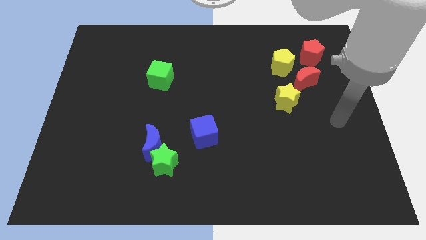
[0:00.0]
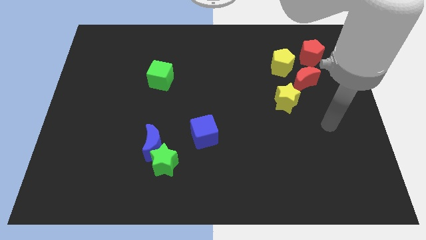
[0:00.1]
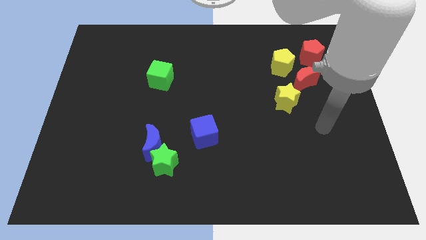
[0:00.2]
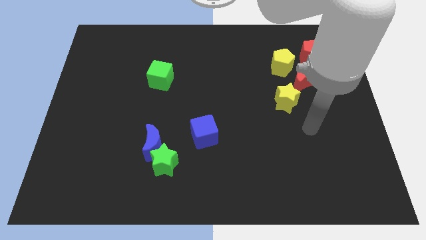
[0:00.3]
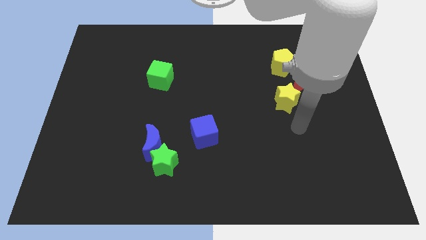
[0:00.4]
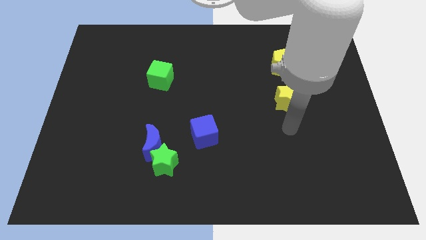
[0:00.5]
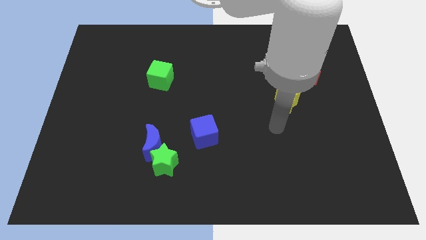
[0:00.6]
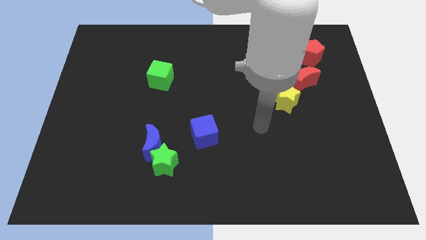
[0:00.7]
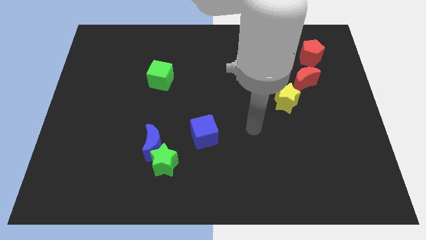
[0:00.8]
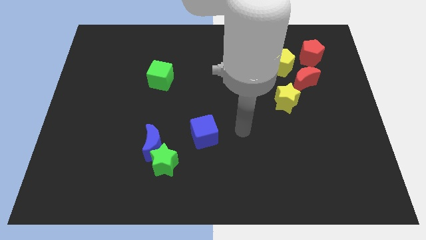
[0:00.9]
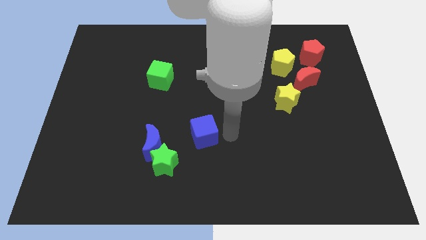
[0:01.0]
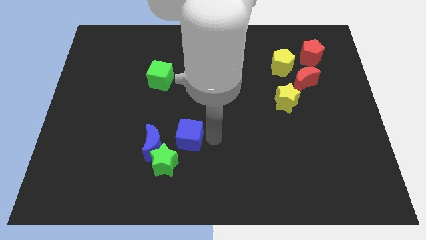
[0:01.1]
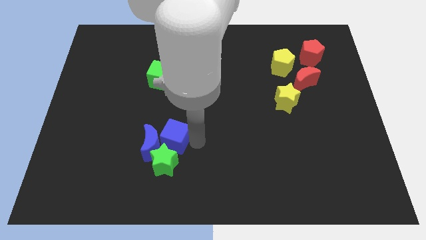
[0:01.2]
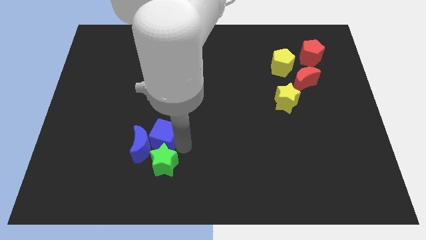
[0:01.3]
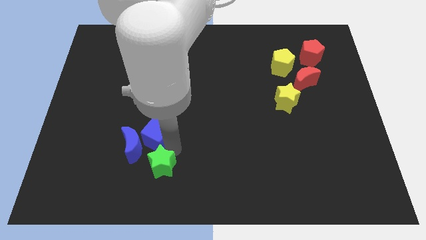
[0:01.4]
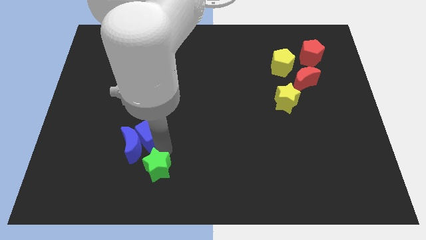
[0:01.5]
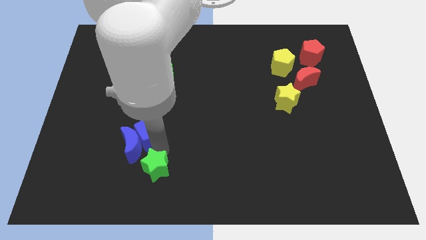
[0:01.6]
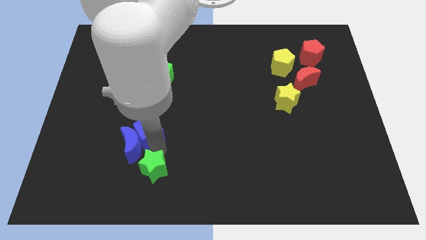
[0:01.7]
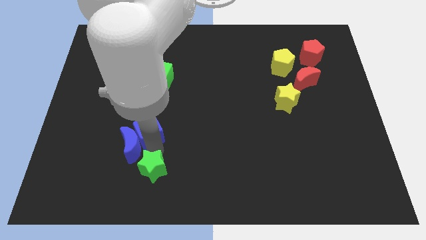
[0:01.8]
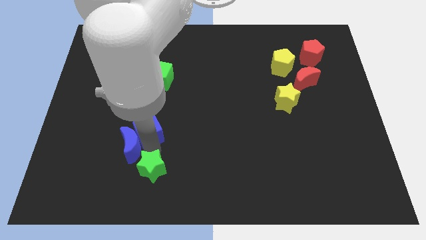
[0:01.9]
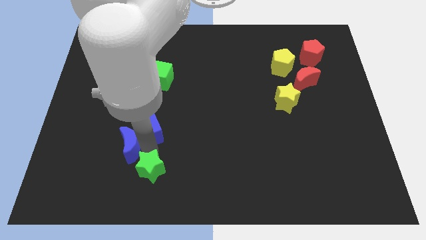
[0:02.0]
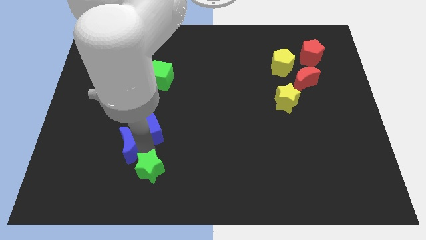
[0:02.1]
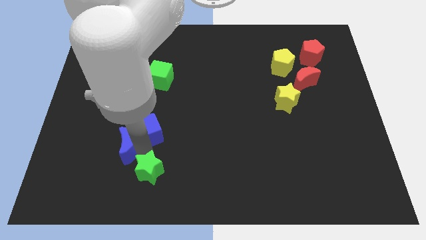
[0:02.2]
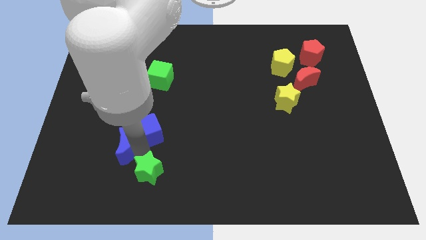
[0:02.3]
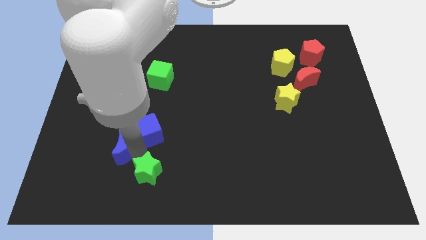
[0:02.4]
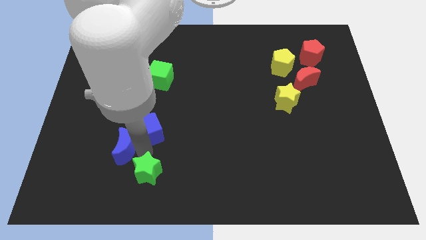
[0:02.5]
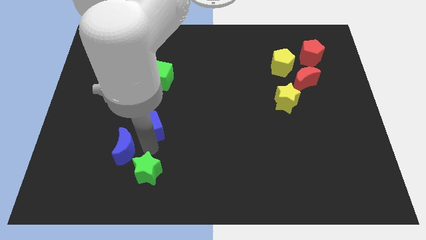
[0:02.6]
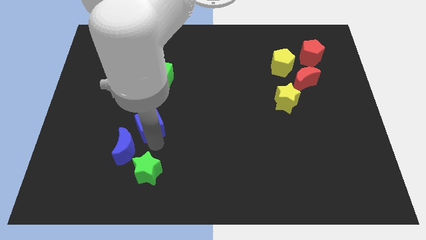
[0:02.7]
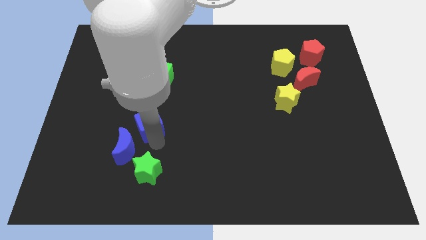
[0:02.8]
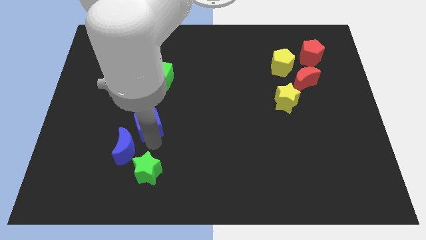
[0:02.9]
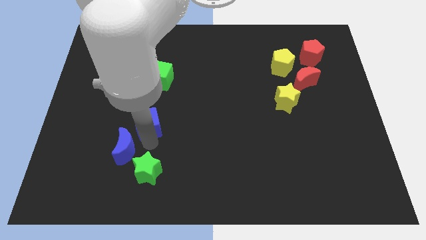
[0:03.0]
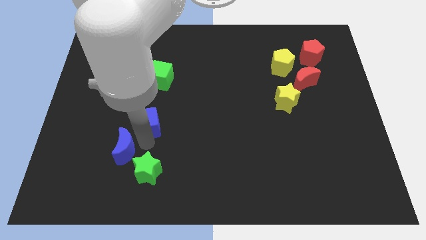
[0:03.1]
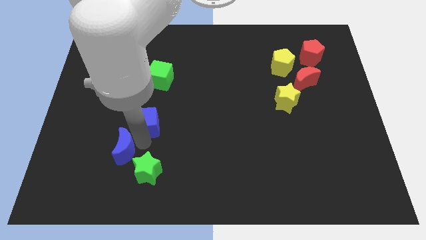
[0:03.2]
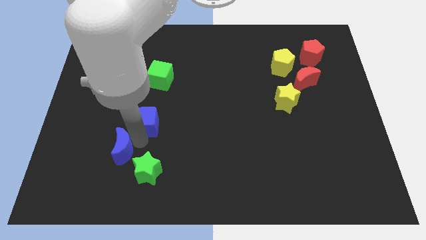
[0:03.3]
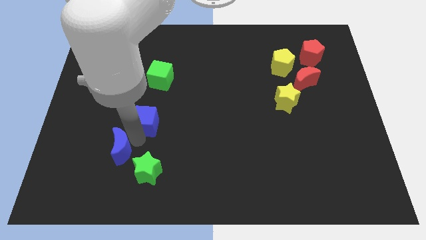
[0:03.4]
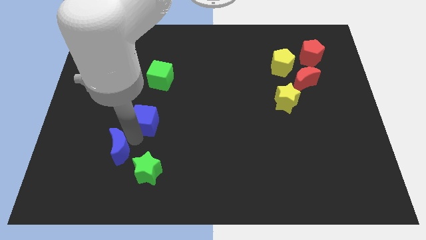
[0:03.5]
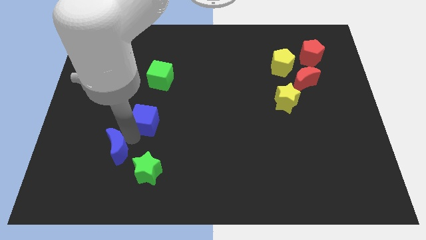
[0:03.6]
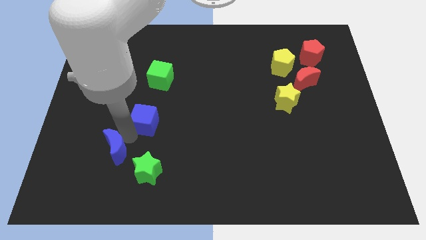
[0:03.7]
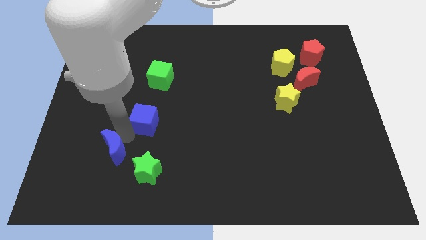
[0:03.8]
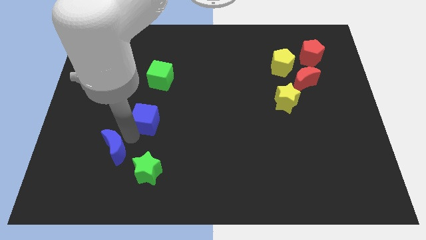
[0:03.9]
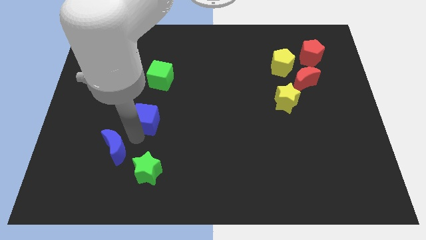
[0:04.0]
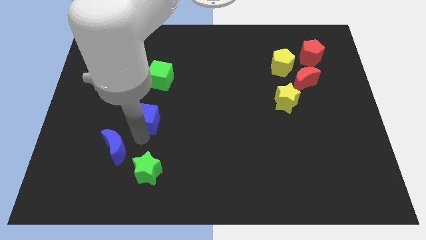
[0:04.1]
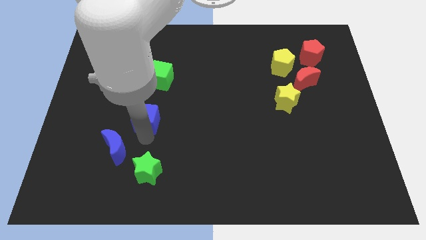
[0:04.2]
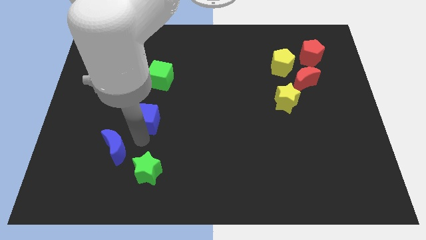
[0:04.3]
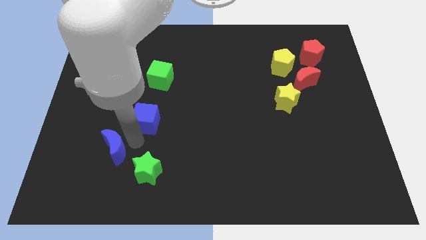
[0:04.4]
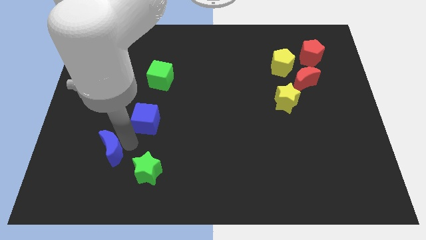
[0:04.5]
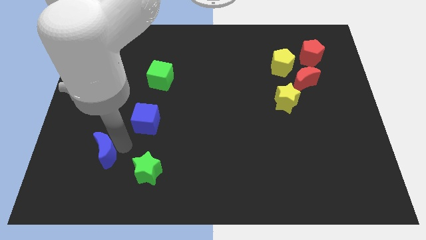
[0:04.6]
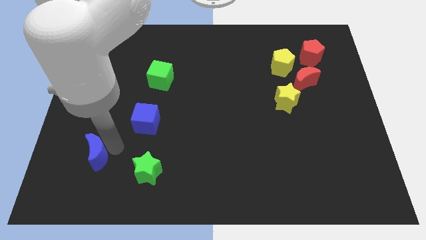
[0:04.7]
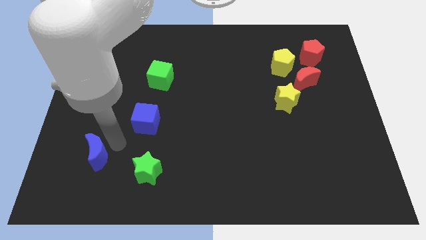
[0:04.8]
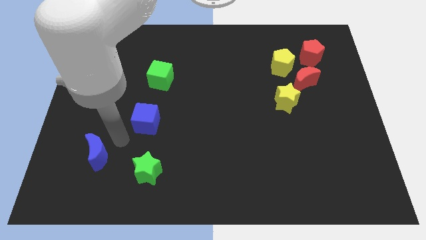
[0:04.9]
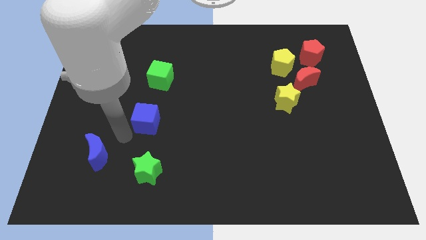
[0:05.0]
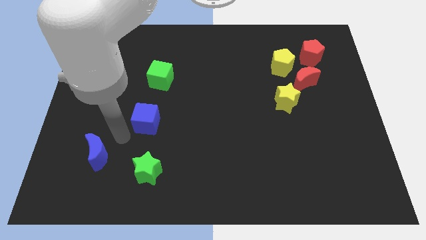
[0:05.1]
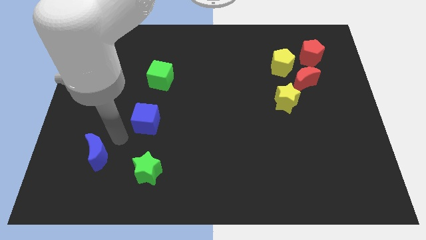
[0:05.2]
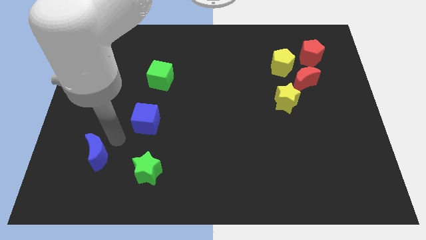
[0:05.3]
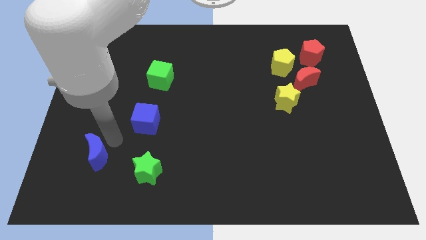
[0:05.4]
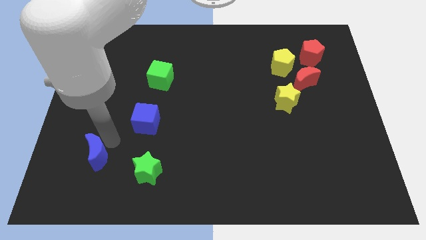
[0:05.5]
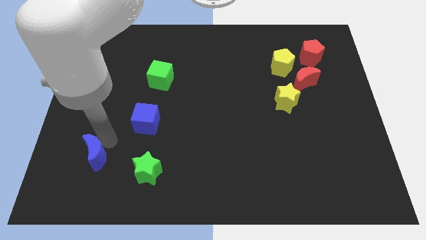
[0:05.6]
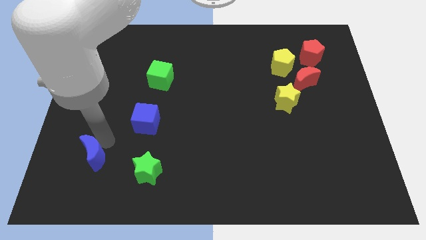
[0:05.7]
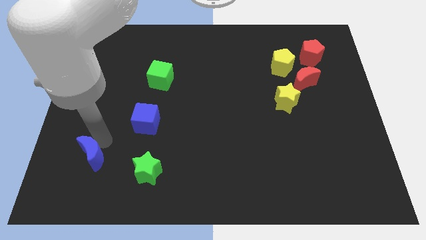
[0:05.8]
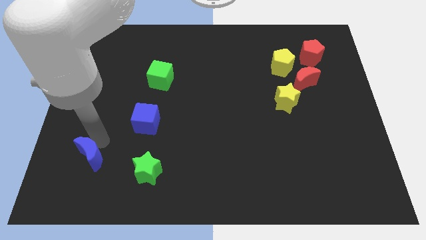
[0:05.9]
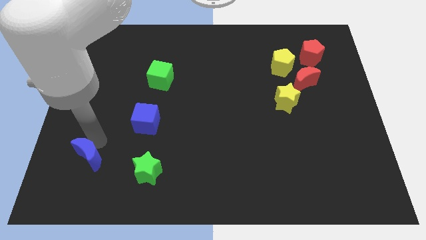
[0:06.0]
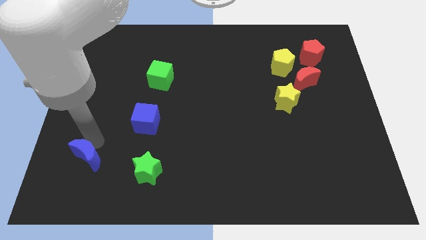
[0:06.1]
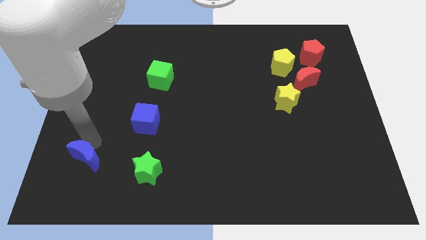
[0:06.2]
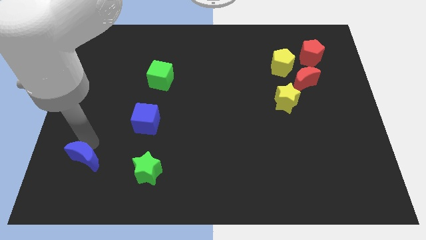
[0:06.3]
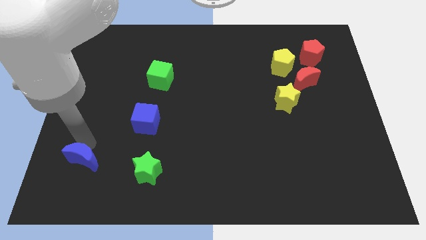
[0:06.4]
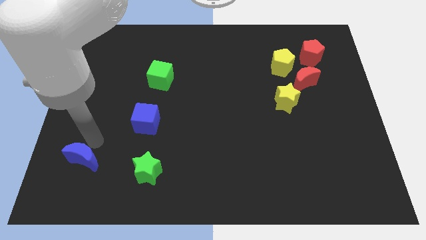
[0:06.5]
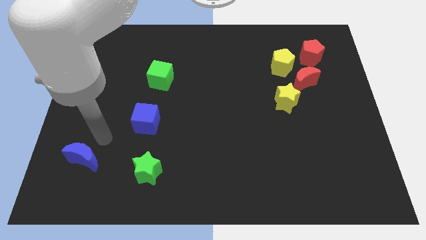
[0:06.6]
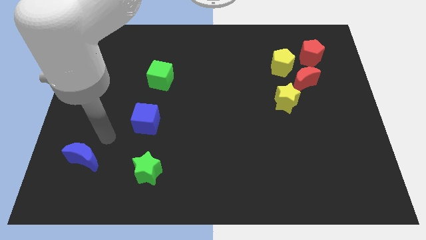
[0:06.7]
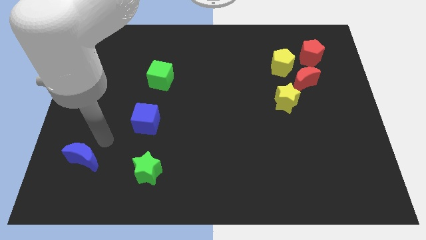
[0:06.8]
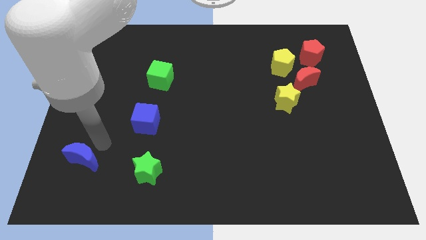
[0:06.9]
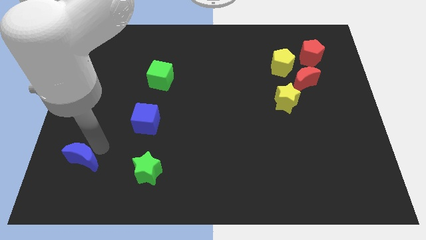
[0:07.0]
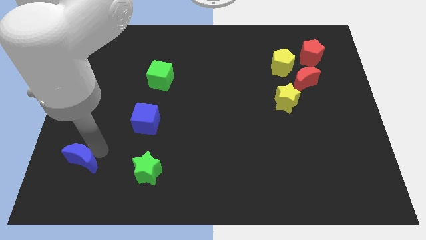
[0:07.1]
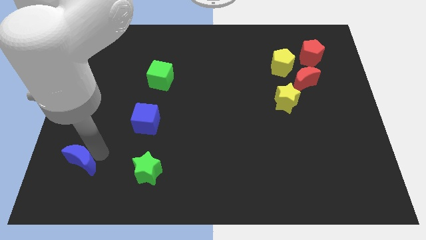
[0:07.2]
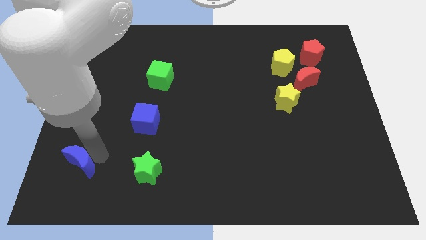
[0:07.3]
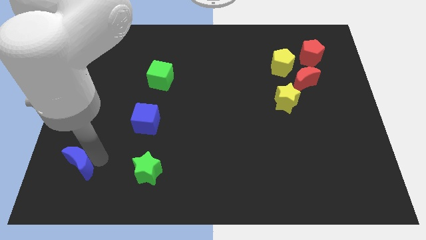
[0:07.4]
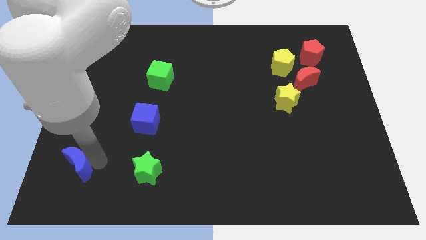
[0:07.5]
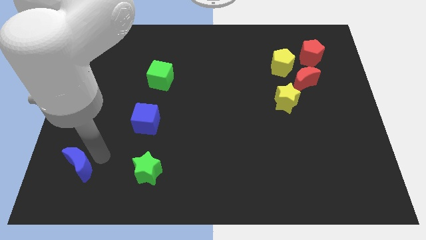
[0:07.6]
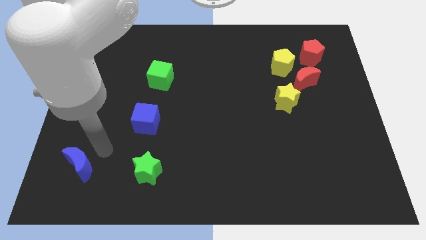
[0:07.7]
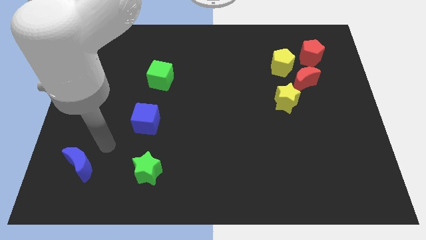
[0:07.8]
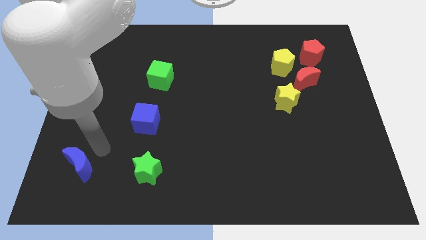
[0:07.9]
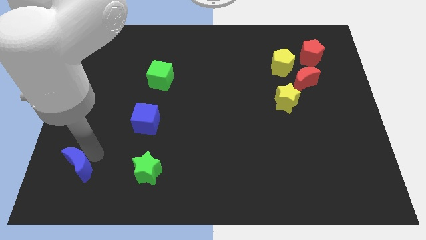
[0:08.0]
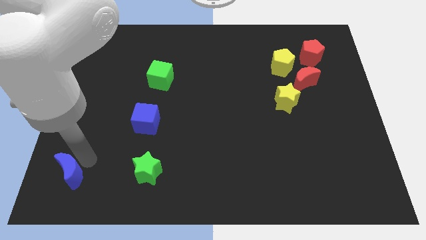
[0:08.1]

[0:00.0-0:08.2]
push the blue moon to the bottom left corner
